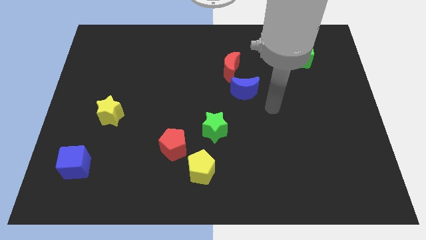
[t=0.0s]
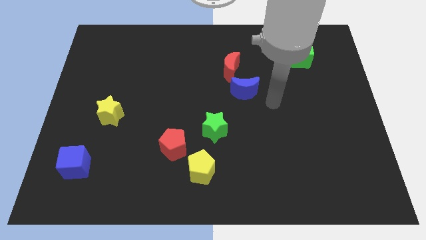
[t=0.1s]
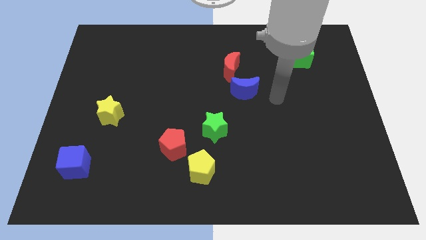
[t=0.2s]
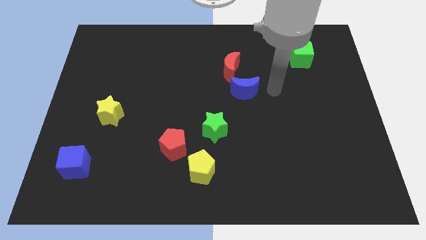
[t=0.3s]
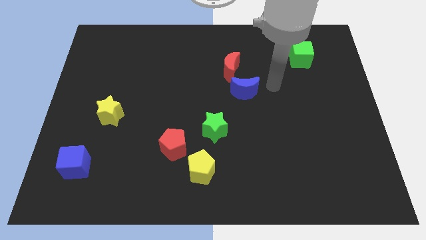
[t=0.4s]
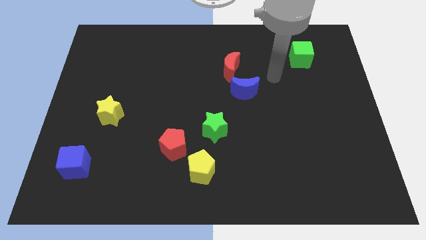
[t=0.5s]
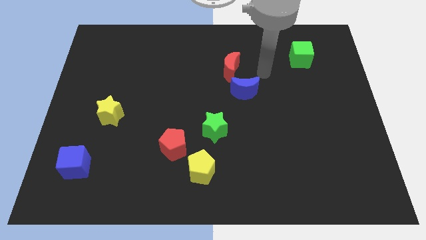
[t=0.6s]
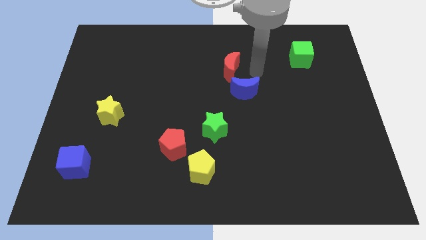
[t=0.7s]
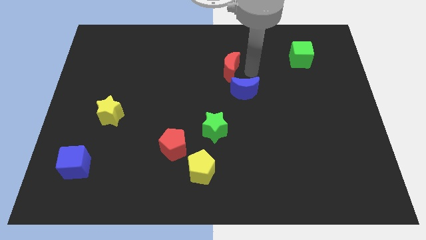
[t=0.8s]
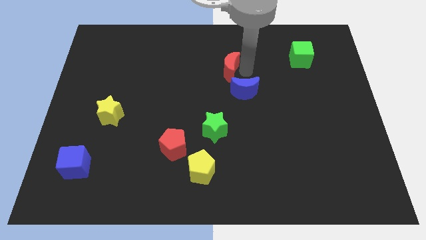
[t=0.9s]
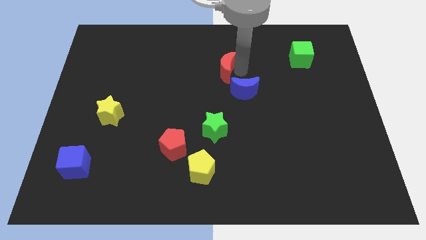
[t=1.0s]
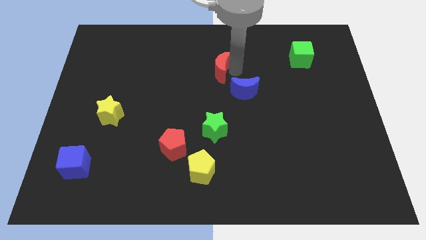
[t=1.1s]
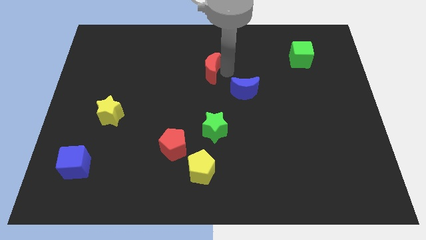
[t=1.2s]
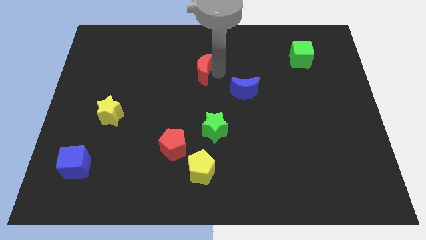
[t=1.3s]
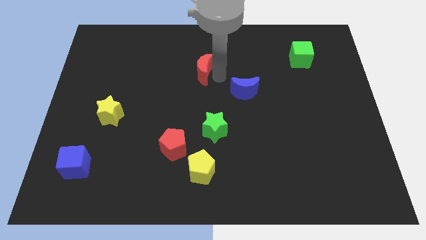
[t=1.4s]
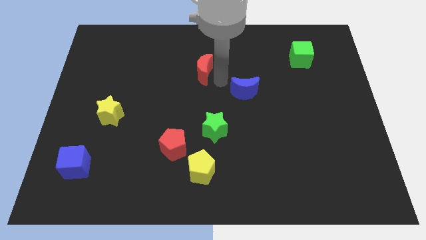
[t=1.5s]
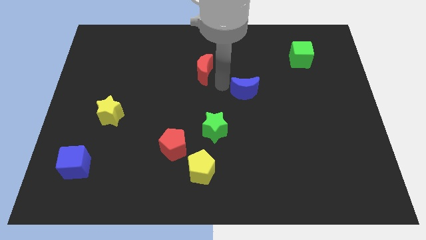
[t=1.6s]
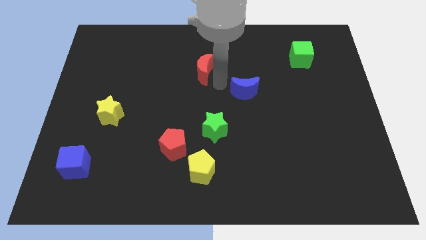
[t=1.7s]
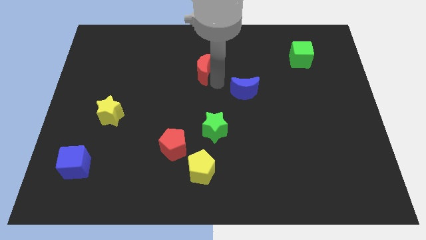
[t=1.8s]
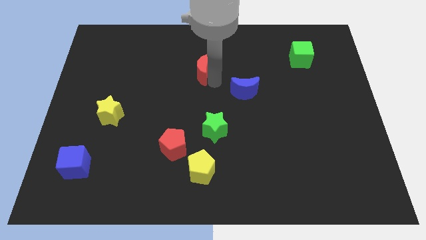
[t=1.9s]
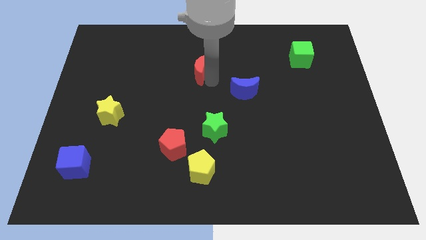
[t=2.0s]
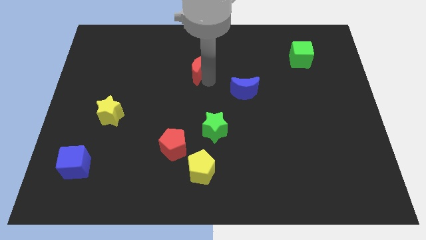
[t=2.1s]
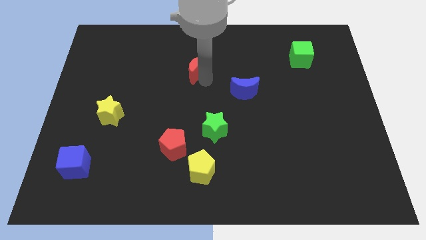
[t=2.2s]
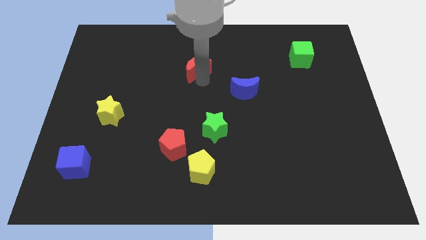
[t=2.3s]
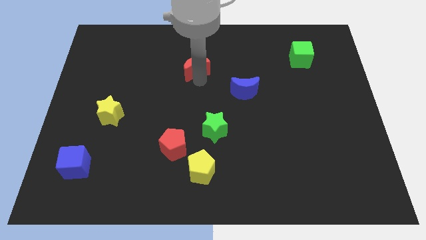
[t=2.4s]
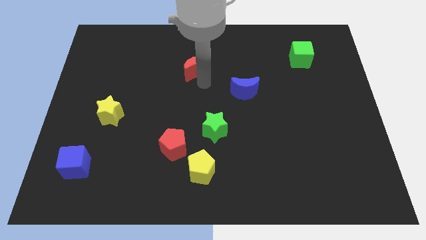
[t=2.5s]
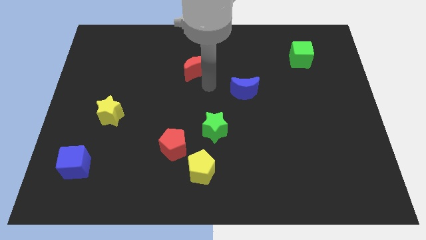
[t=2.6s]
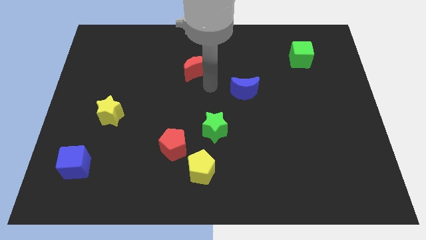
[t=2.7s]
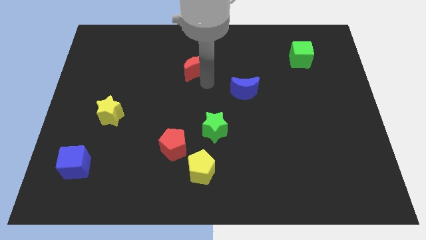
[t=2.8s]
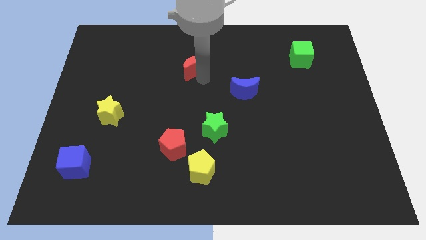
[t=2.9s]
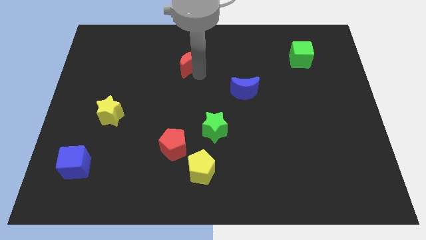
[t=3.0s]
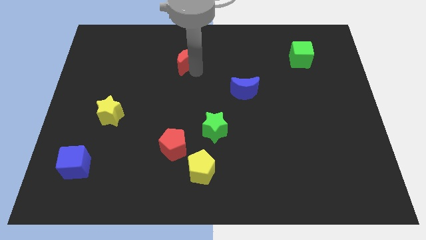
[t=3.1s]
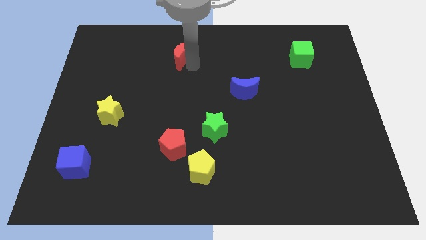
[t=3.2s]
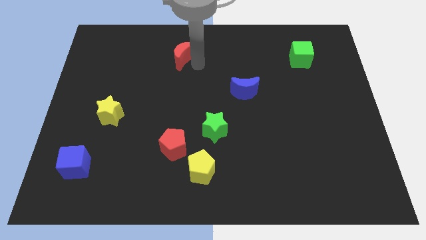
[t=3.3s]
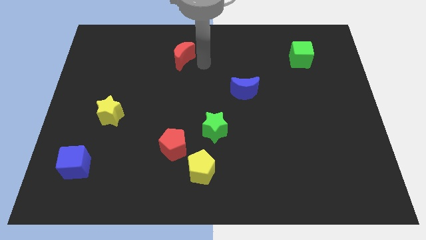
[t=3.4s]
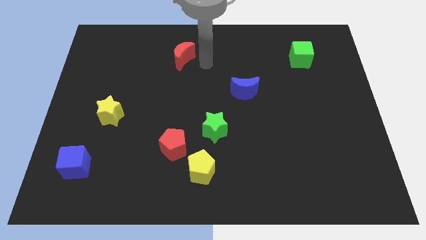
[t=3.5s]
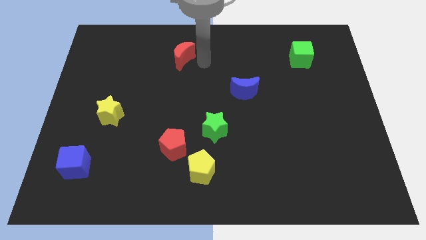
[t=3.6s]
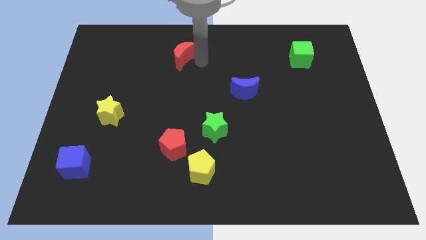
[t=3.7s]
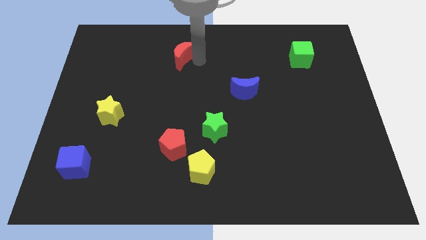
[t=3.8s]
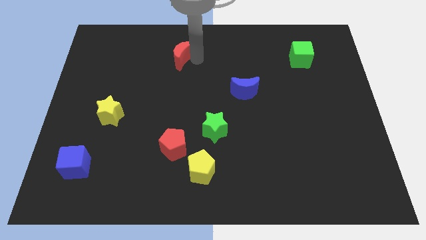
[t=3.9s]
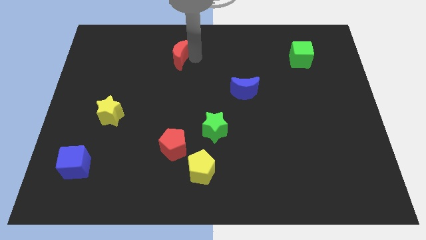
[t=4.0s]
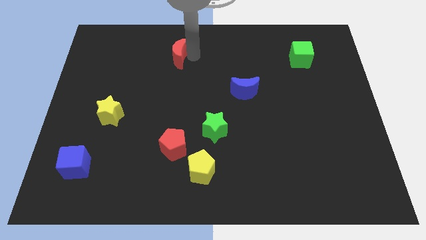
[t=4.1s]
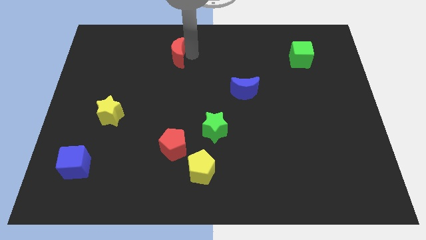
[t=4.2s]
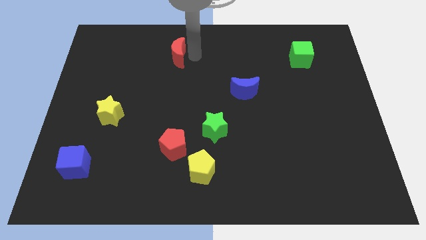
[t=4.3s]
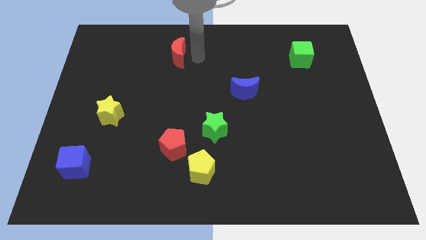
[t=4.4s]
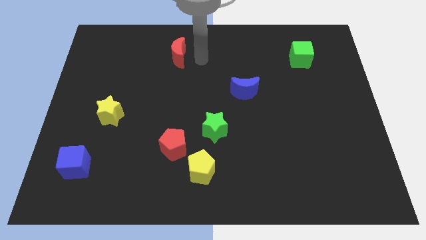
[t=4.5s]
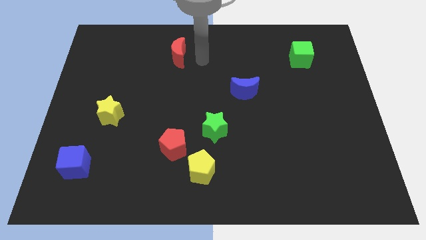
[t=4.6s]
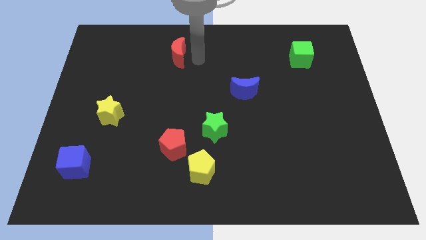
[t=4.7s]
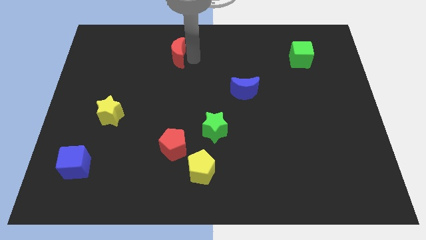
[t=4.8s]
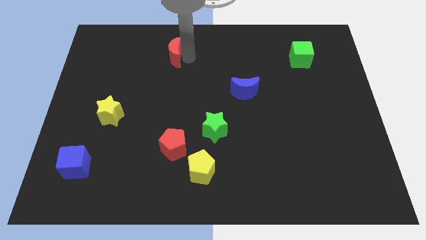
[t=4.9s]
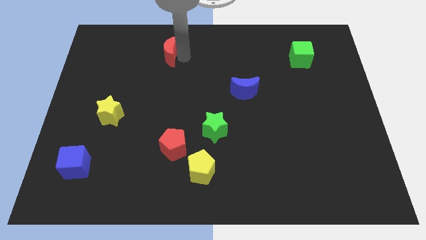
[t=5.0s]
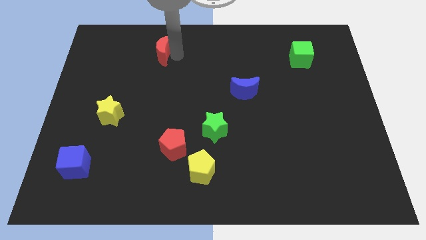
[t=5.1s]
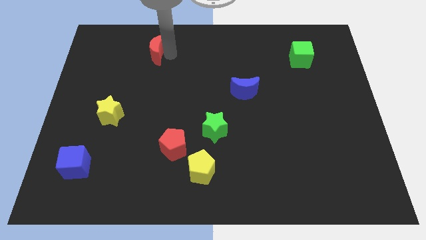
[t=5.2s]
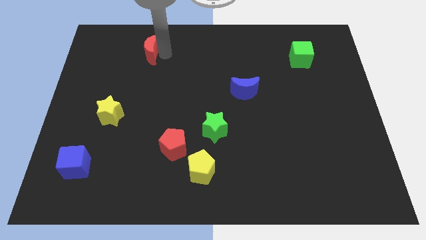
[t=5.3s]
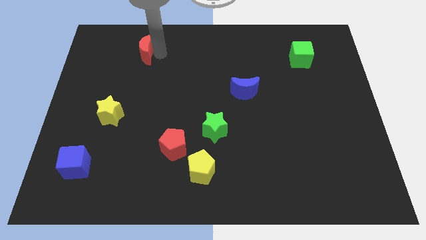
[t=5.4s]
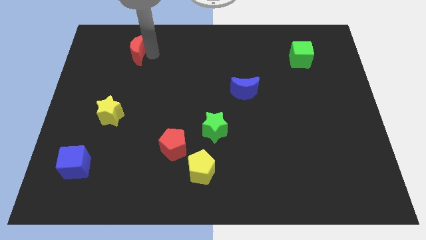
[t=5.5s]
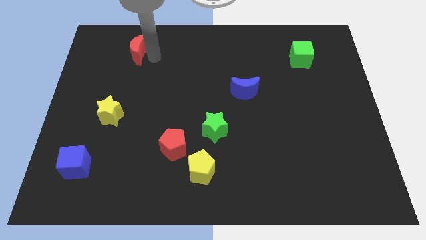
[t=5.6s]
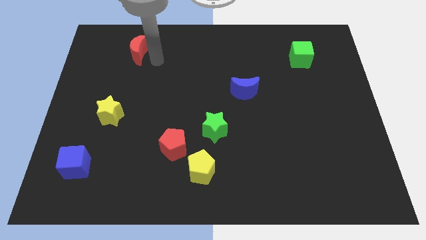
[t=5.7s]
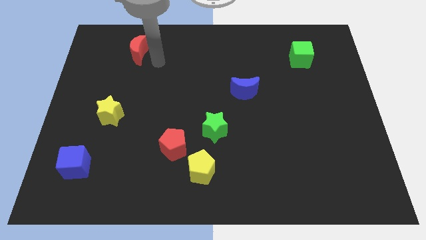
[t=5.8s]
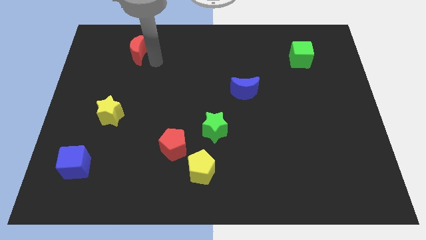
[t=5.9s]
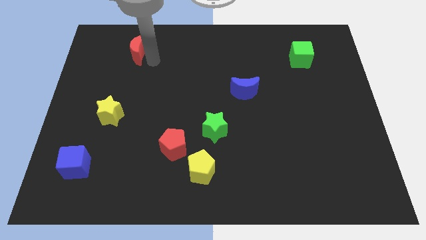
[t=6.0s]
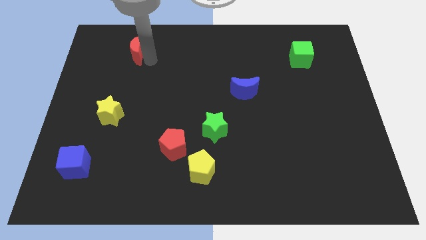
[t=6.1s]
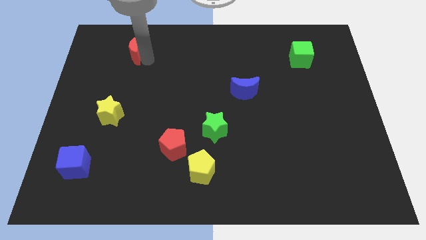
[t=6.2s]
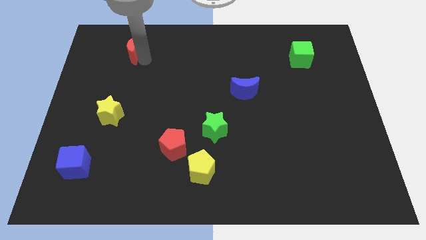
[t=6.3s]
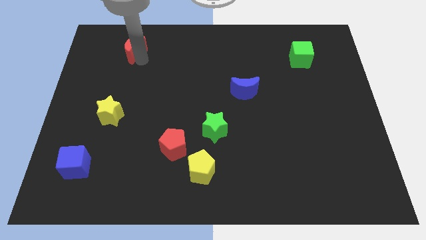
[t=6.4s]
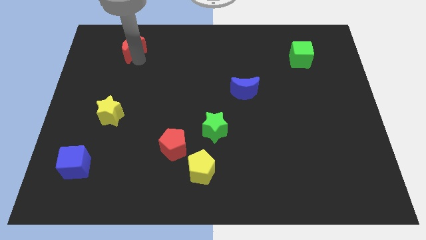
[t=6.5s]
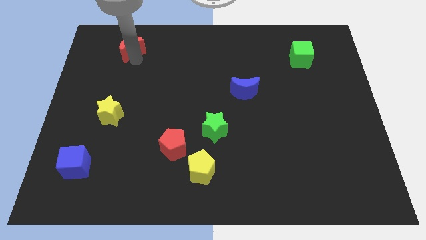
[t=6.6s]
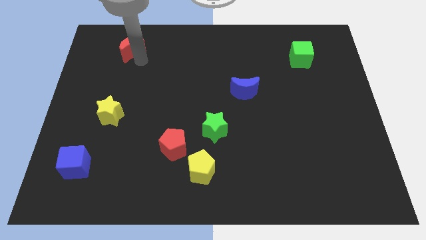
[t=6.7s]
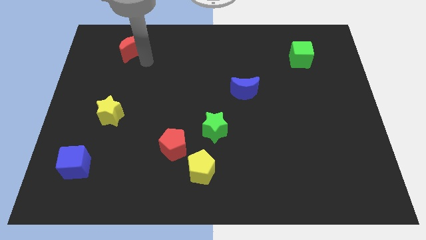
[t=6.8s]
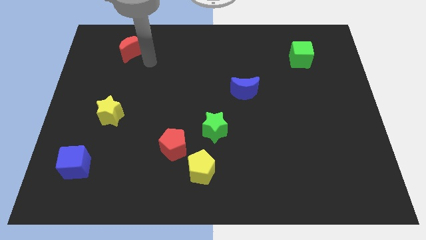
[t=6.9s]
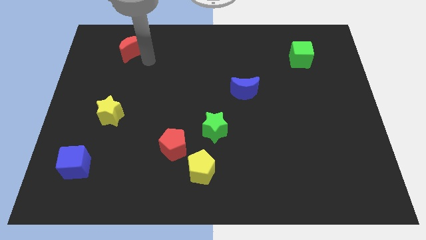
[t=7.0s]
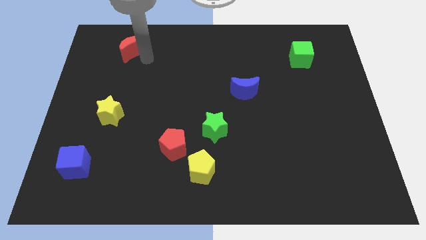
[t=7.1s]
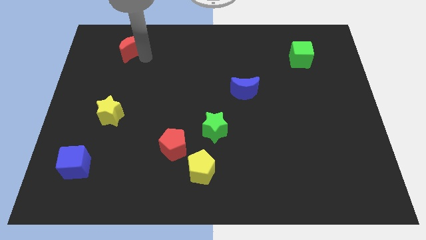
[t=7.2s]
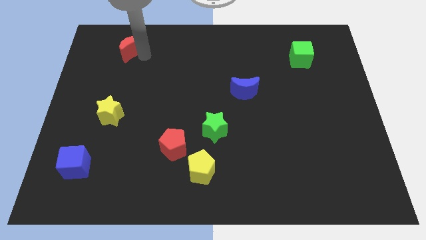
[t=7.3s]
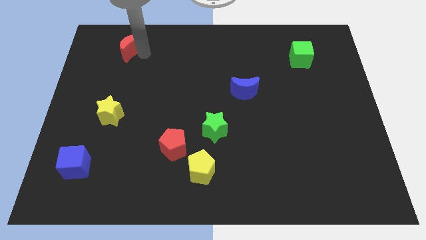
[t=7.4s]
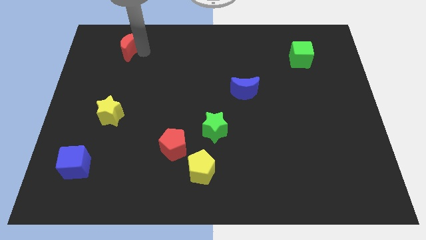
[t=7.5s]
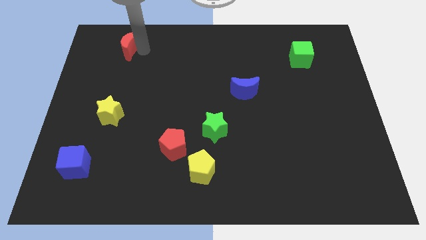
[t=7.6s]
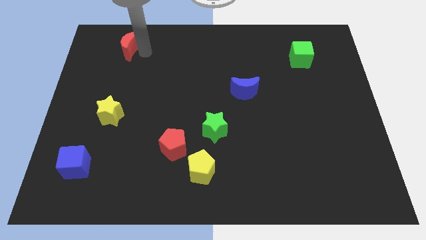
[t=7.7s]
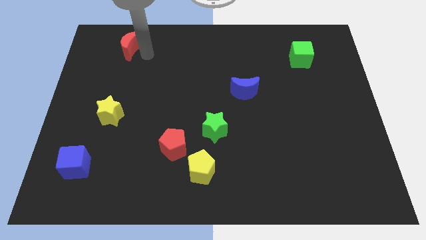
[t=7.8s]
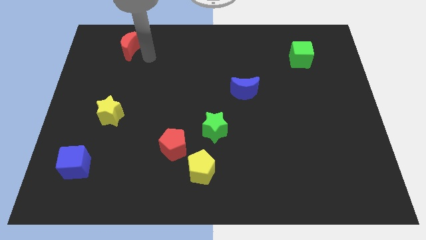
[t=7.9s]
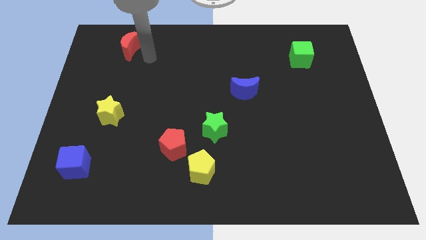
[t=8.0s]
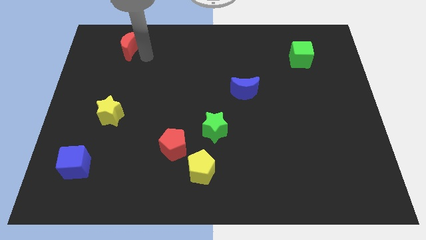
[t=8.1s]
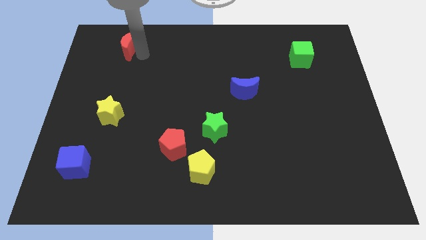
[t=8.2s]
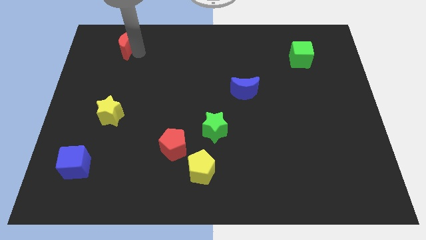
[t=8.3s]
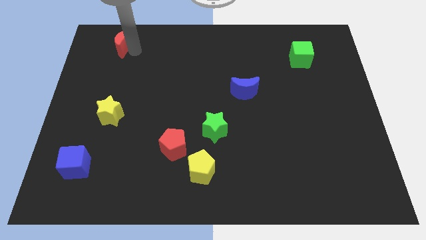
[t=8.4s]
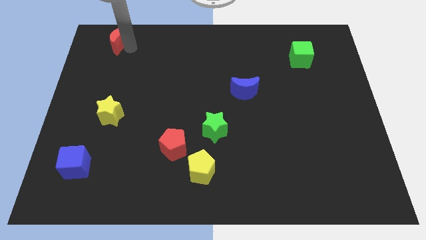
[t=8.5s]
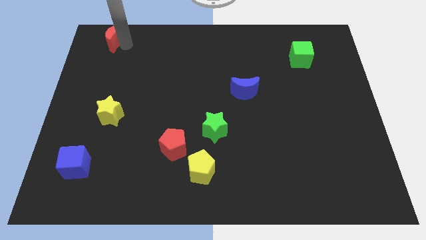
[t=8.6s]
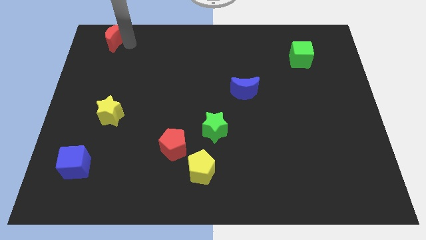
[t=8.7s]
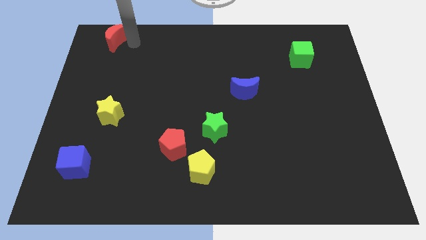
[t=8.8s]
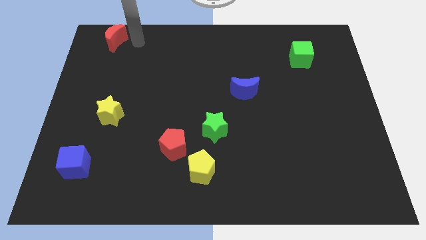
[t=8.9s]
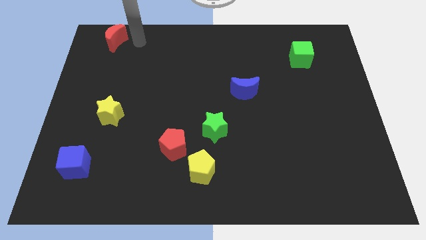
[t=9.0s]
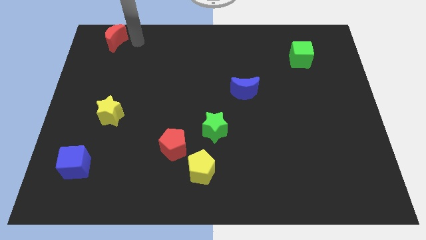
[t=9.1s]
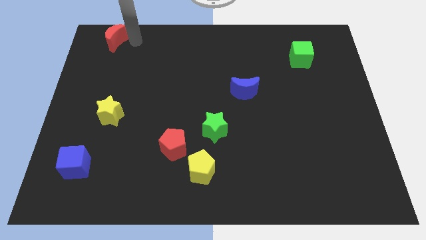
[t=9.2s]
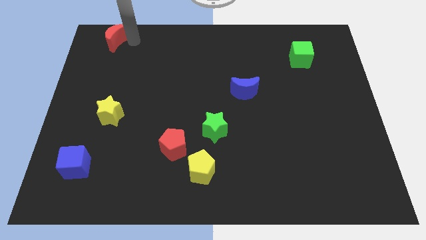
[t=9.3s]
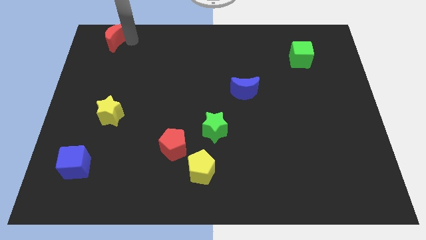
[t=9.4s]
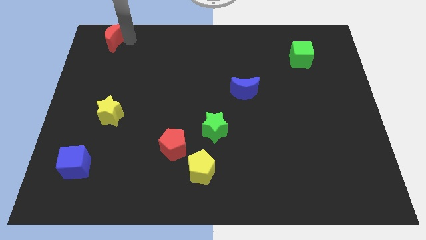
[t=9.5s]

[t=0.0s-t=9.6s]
put the red moon to the top left of the board
